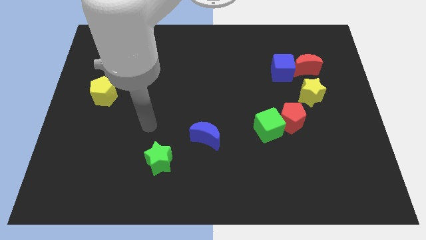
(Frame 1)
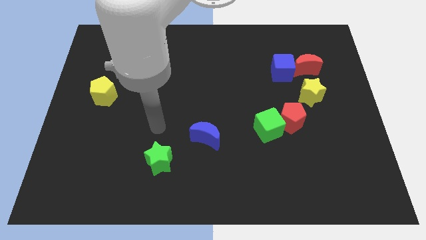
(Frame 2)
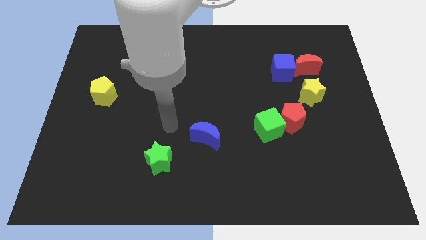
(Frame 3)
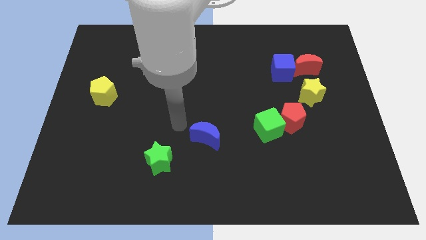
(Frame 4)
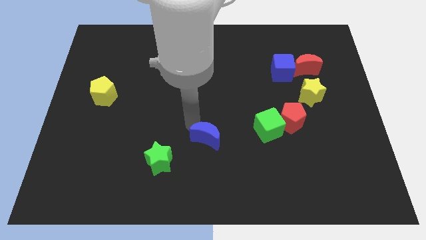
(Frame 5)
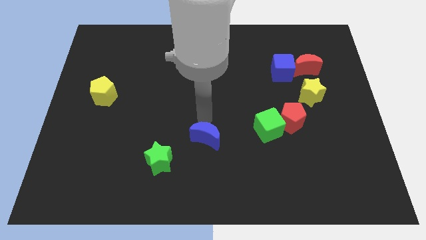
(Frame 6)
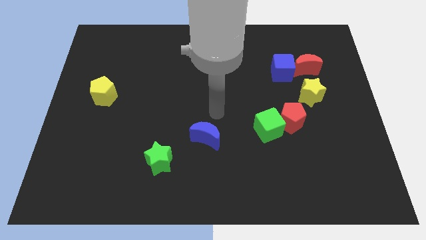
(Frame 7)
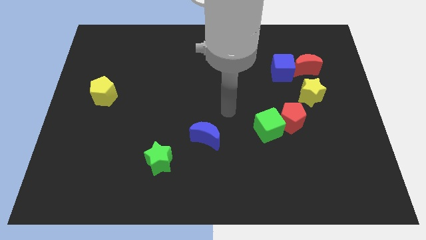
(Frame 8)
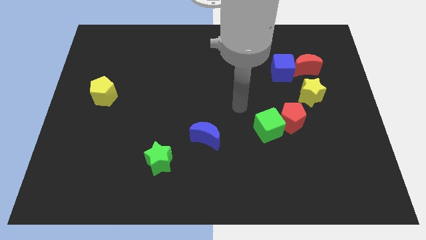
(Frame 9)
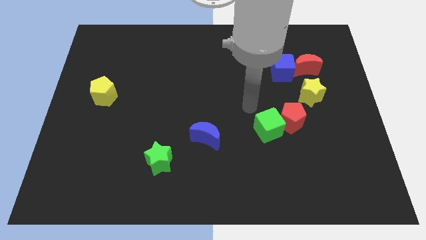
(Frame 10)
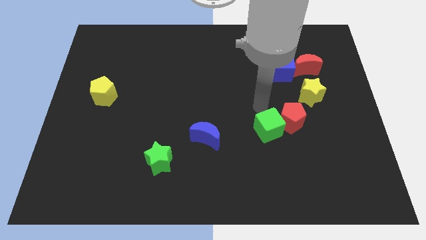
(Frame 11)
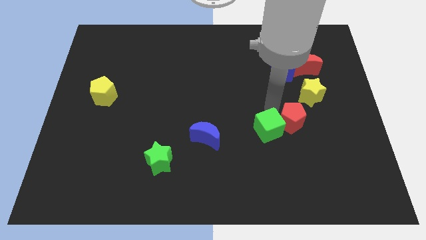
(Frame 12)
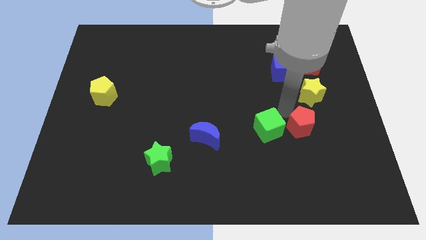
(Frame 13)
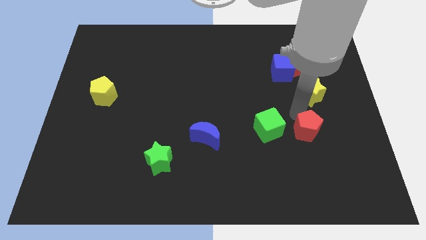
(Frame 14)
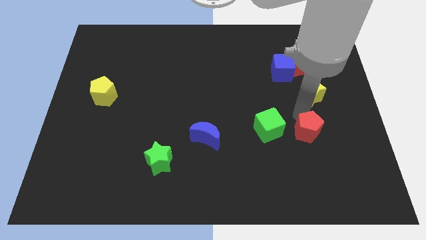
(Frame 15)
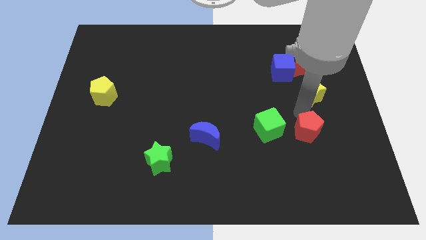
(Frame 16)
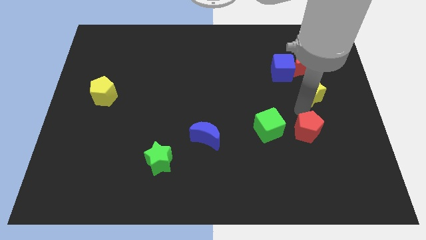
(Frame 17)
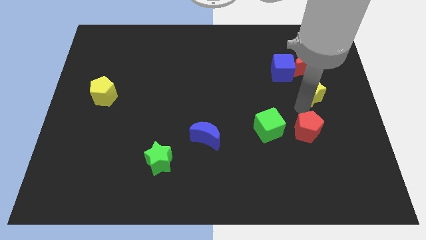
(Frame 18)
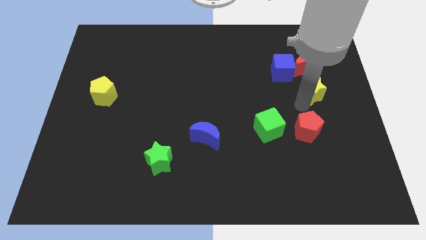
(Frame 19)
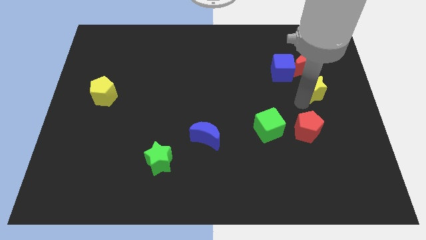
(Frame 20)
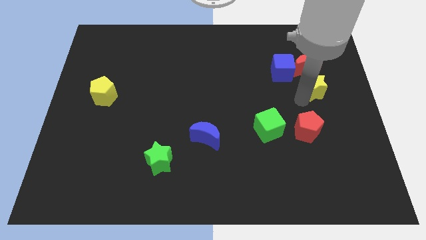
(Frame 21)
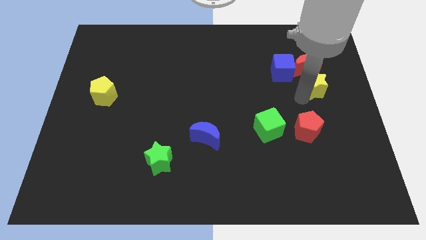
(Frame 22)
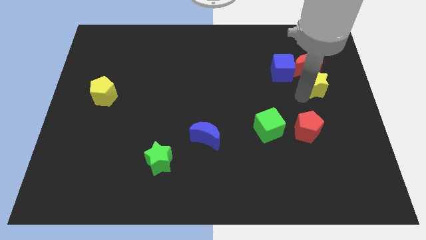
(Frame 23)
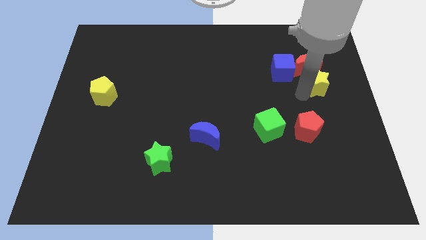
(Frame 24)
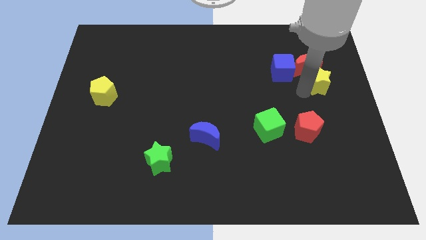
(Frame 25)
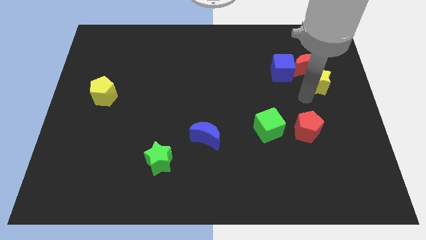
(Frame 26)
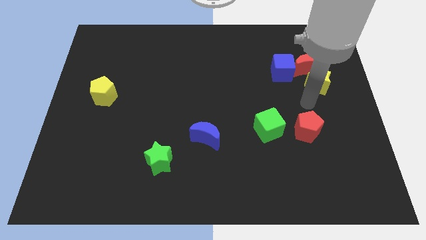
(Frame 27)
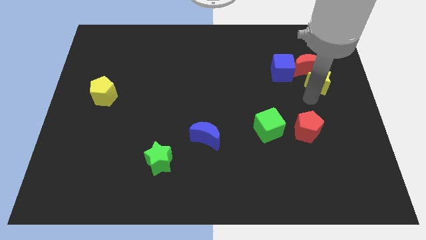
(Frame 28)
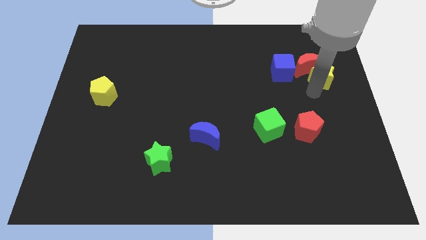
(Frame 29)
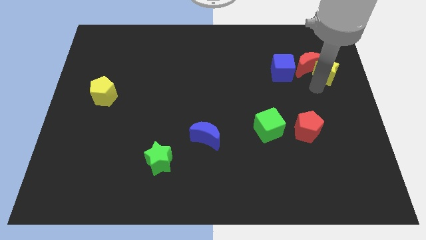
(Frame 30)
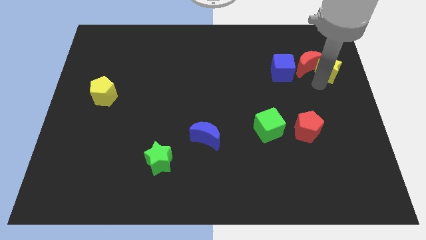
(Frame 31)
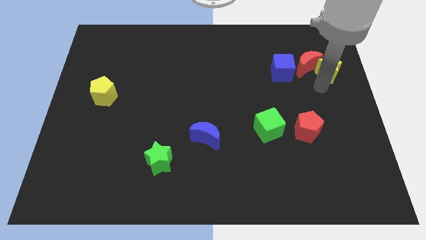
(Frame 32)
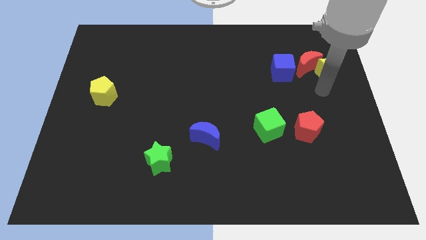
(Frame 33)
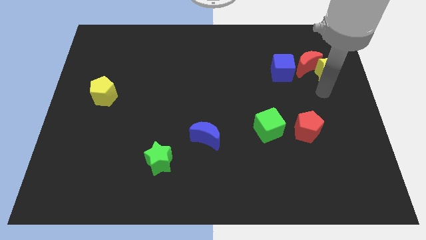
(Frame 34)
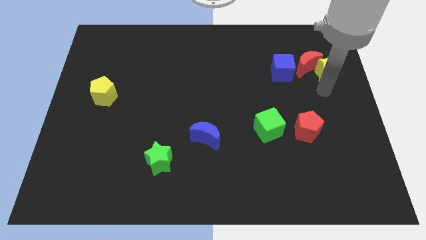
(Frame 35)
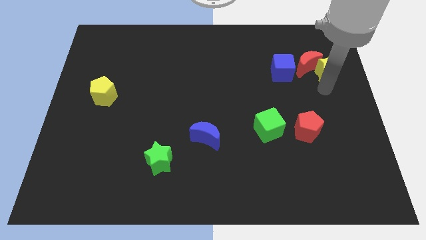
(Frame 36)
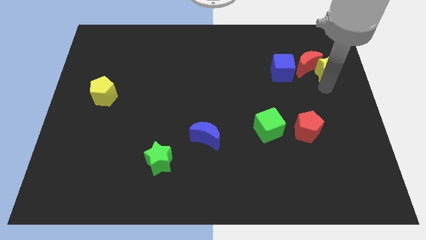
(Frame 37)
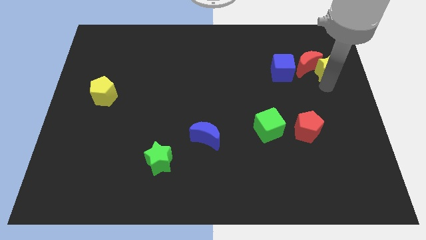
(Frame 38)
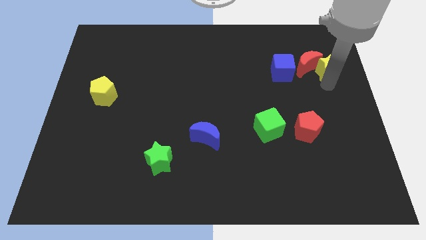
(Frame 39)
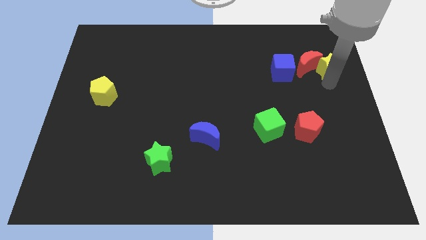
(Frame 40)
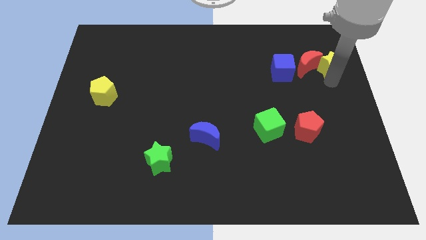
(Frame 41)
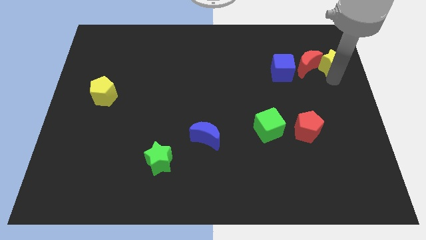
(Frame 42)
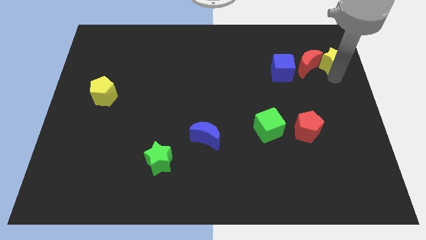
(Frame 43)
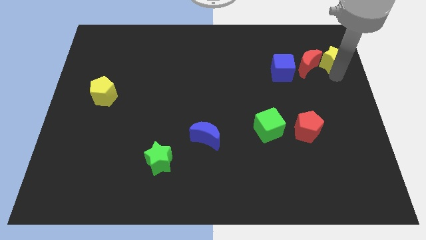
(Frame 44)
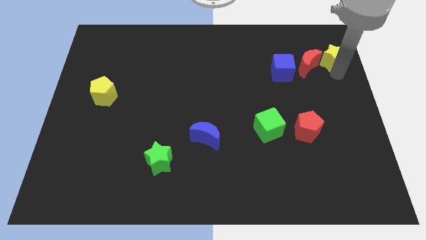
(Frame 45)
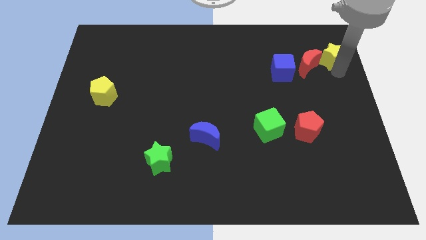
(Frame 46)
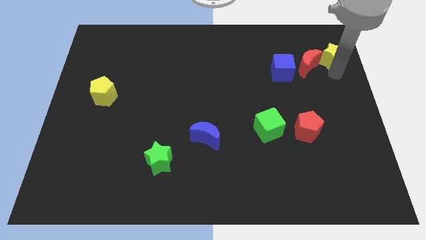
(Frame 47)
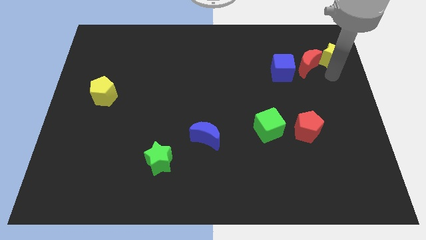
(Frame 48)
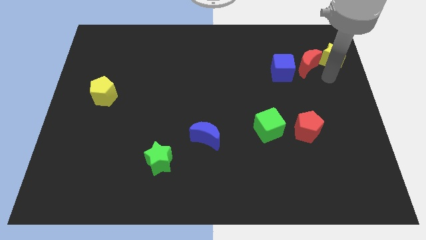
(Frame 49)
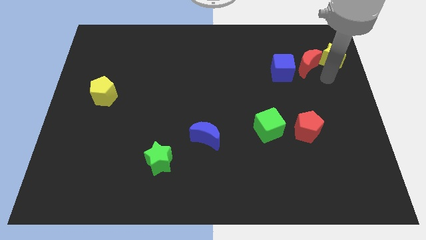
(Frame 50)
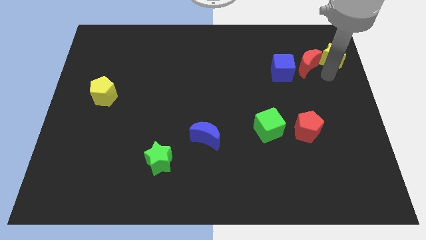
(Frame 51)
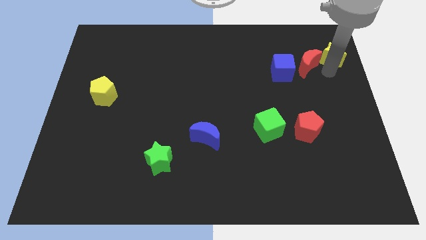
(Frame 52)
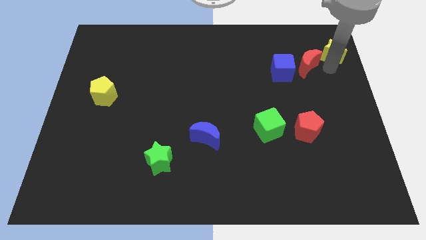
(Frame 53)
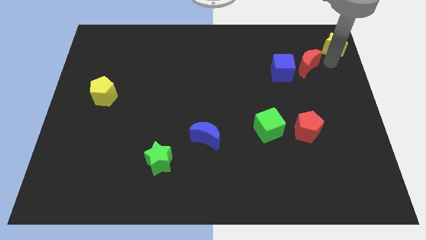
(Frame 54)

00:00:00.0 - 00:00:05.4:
slide the yellow star to the top right of the board

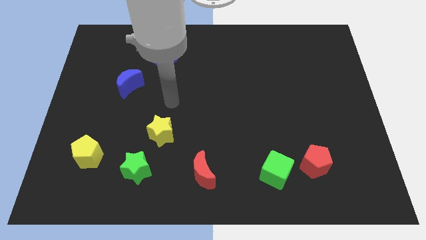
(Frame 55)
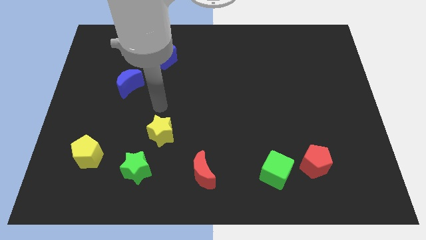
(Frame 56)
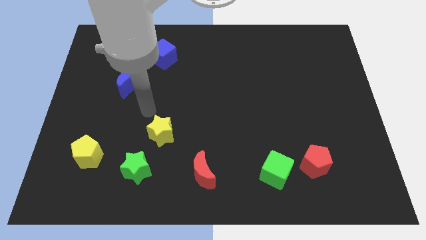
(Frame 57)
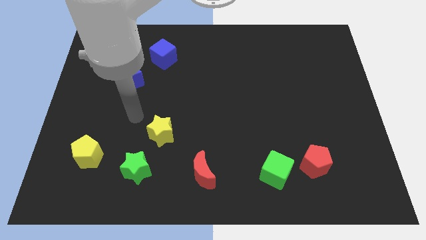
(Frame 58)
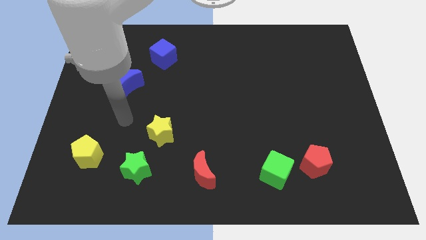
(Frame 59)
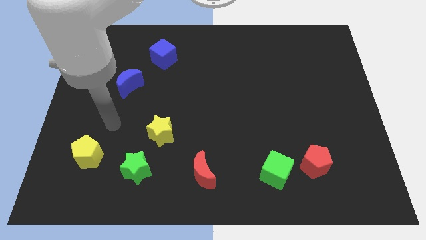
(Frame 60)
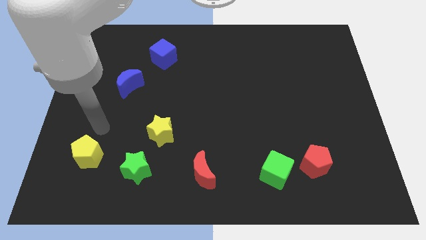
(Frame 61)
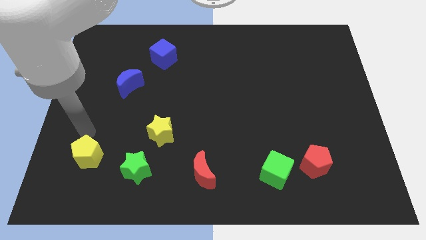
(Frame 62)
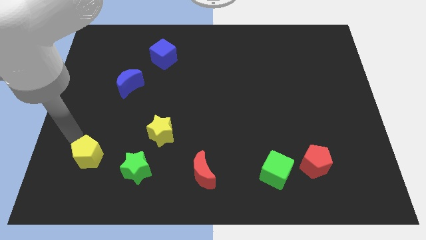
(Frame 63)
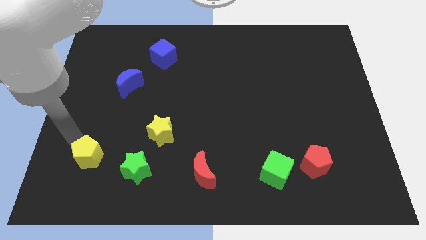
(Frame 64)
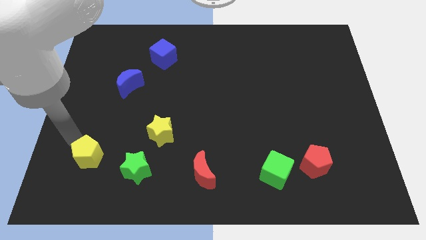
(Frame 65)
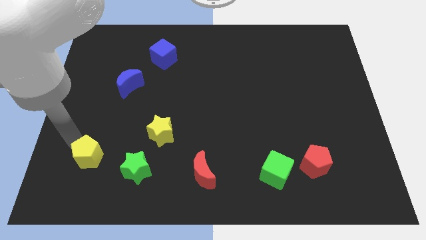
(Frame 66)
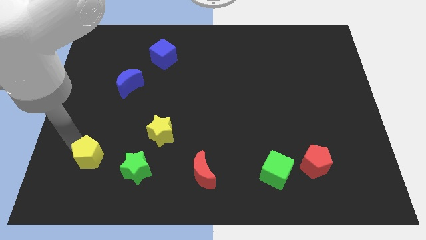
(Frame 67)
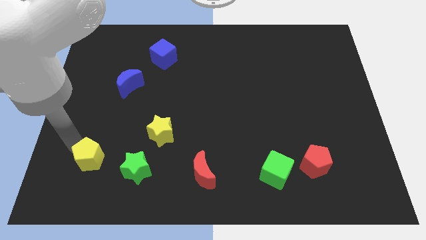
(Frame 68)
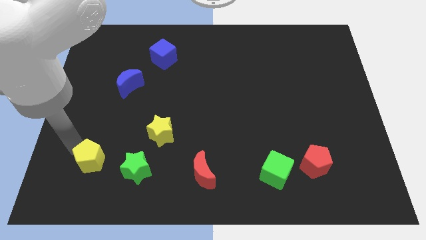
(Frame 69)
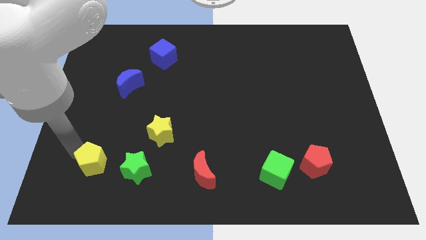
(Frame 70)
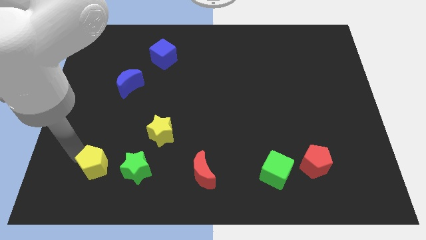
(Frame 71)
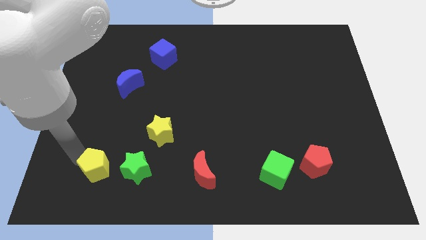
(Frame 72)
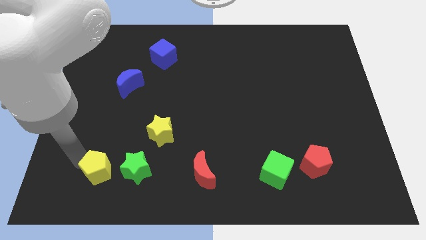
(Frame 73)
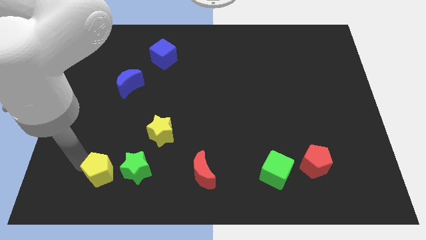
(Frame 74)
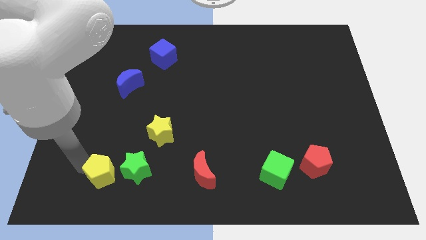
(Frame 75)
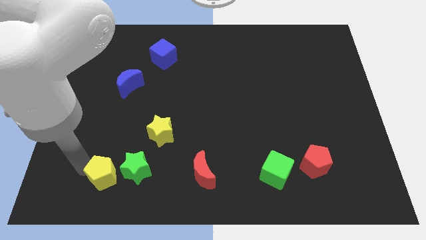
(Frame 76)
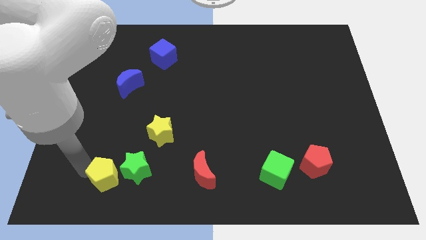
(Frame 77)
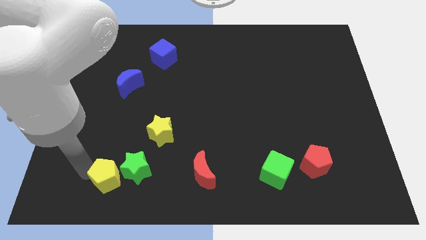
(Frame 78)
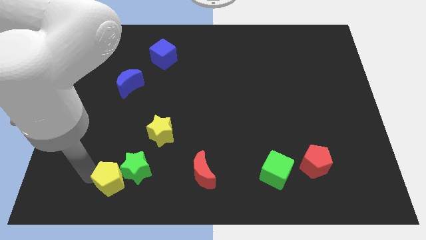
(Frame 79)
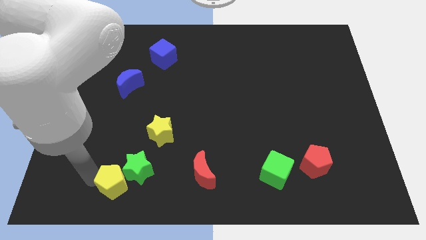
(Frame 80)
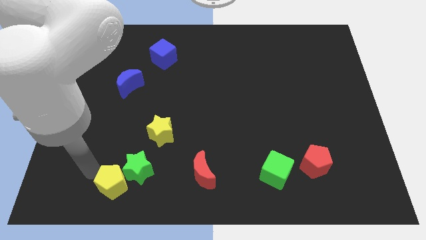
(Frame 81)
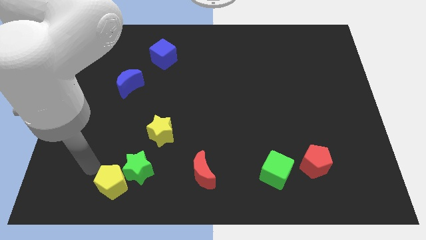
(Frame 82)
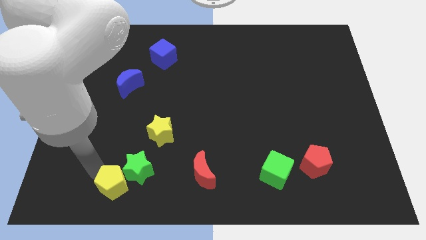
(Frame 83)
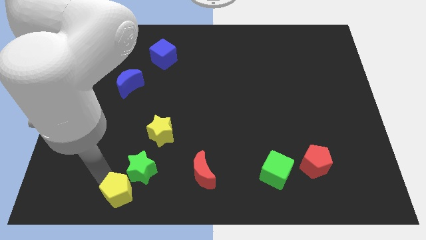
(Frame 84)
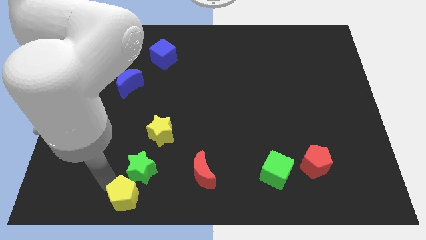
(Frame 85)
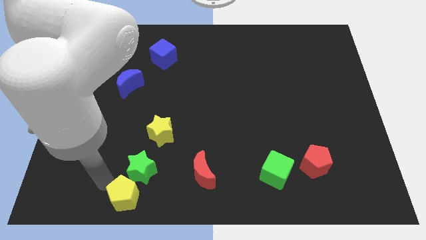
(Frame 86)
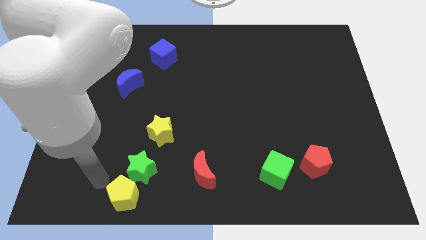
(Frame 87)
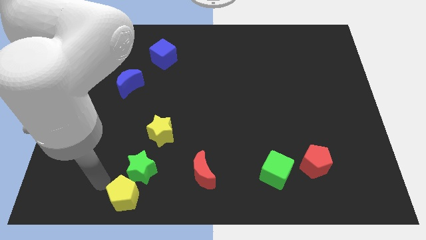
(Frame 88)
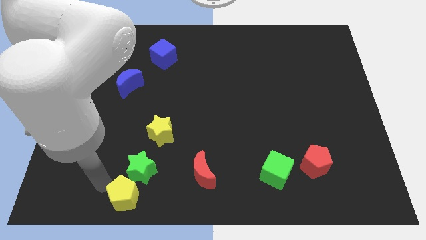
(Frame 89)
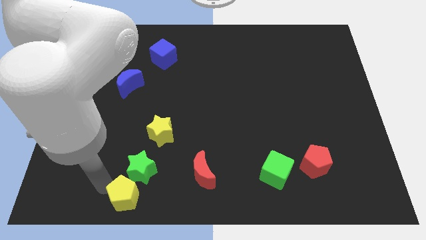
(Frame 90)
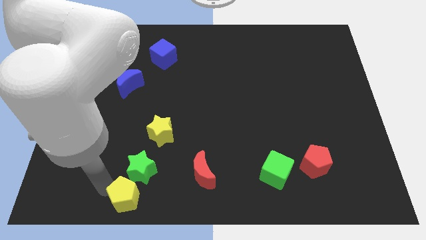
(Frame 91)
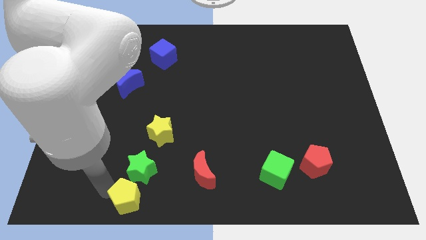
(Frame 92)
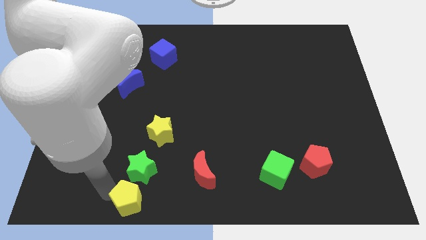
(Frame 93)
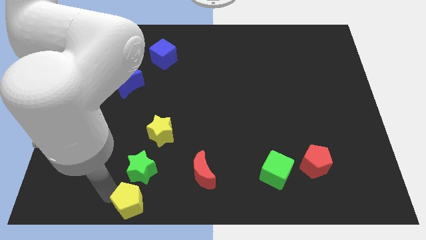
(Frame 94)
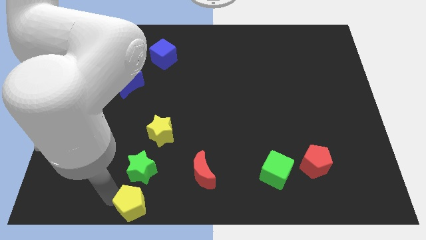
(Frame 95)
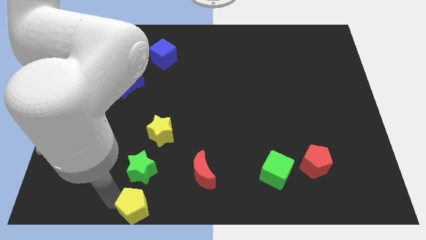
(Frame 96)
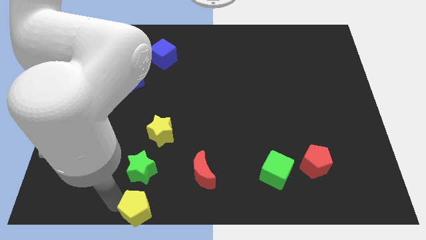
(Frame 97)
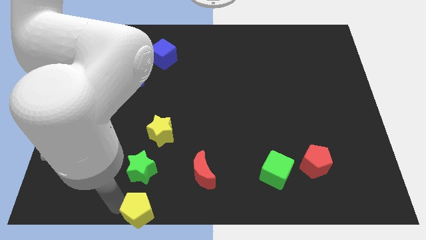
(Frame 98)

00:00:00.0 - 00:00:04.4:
move the yellow pentagon to the bottom side
